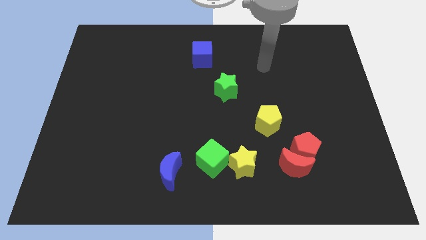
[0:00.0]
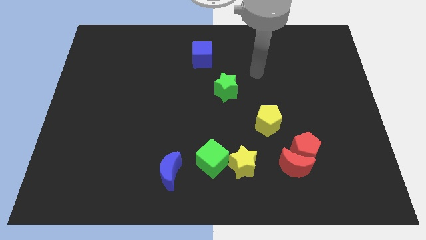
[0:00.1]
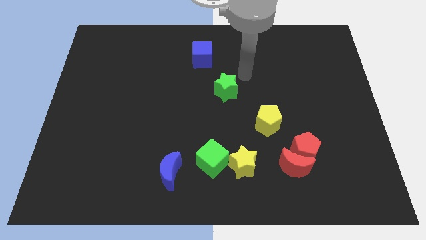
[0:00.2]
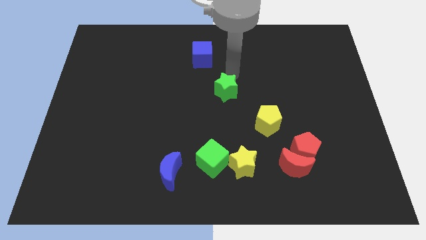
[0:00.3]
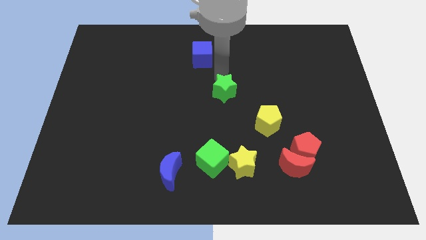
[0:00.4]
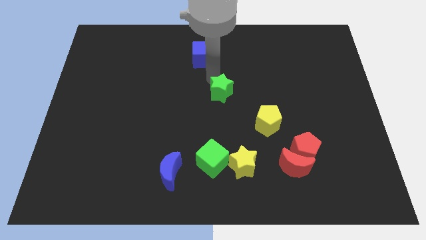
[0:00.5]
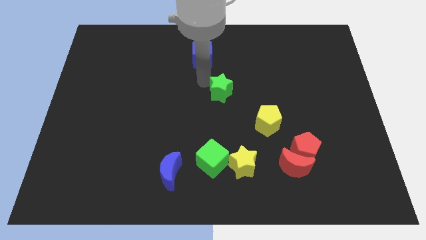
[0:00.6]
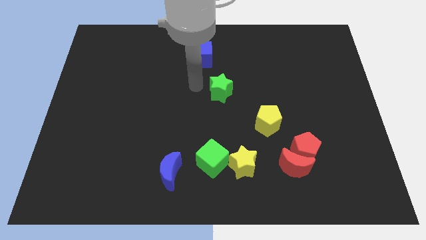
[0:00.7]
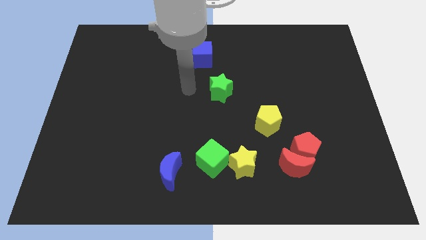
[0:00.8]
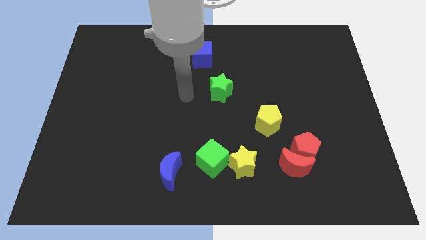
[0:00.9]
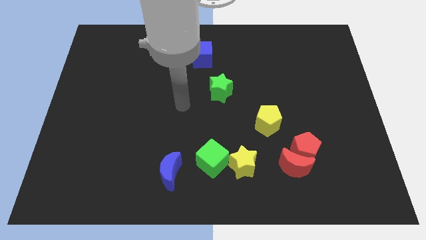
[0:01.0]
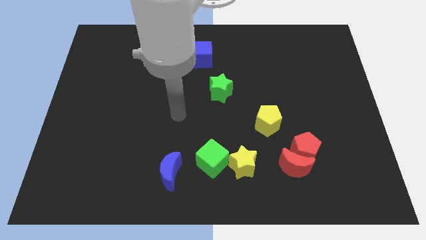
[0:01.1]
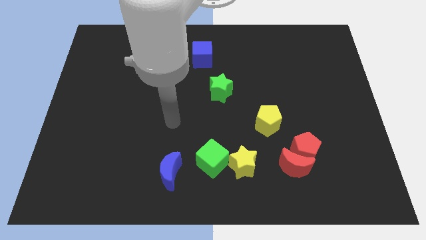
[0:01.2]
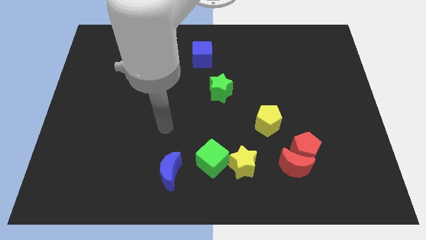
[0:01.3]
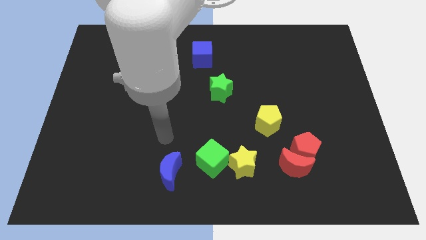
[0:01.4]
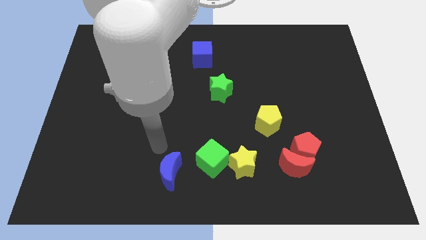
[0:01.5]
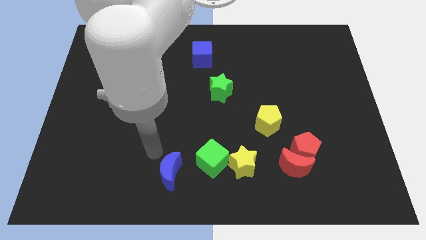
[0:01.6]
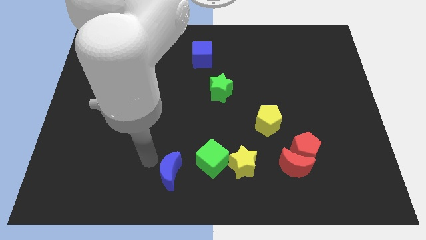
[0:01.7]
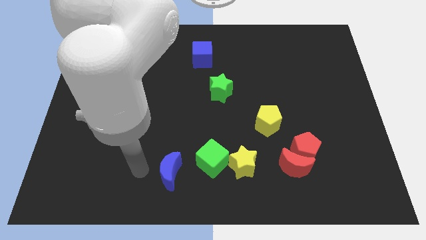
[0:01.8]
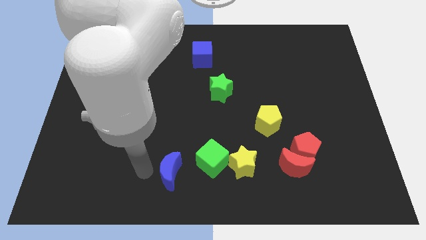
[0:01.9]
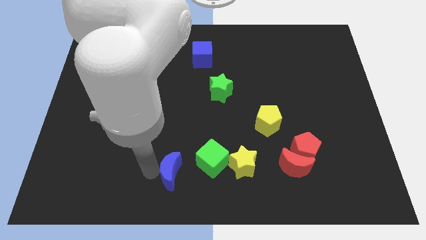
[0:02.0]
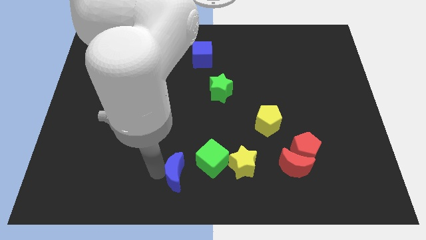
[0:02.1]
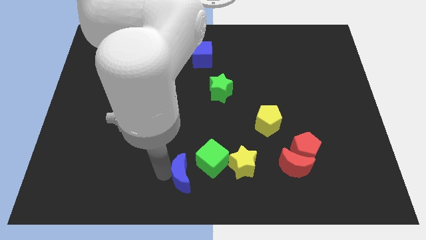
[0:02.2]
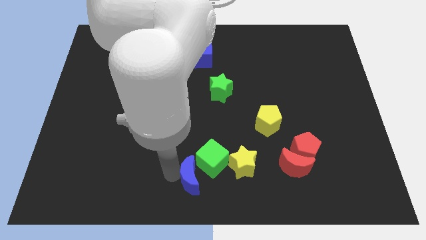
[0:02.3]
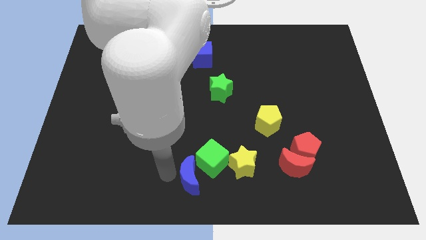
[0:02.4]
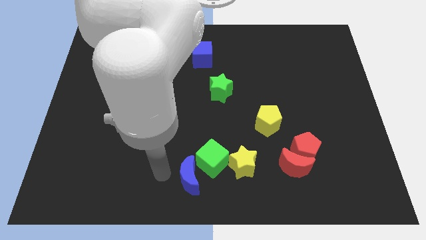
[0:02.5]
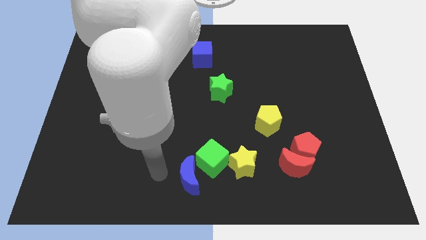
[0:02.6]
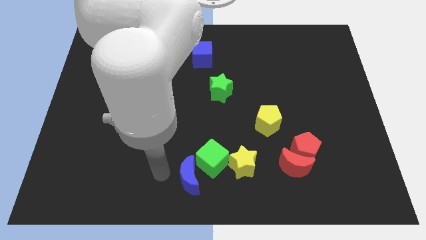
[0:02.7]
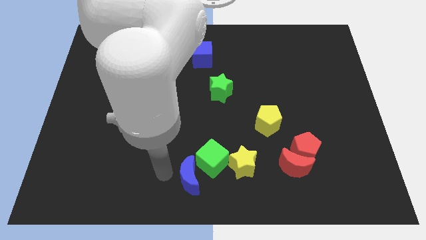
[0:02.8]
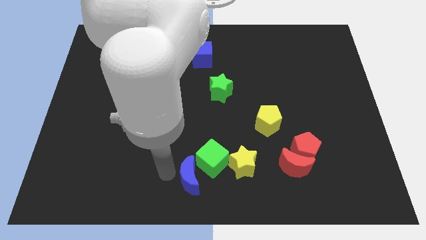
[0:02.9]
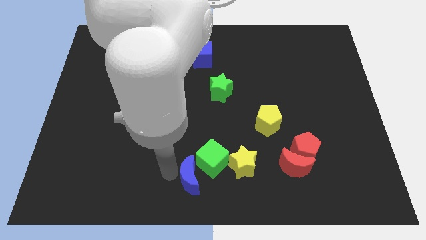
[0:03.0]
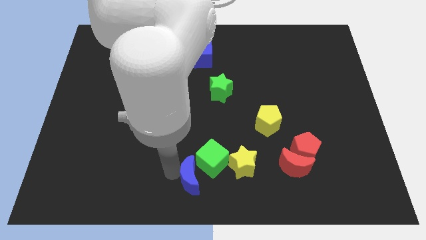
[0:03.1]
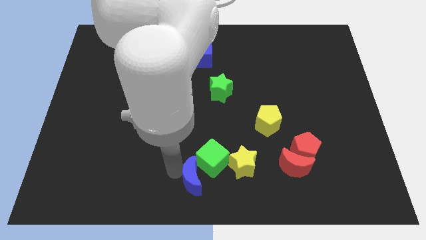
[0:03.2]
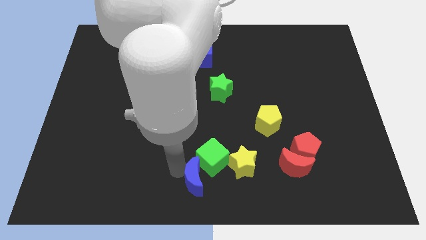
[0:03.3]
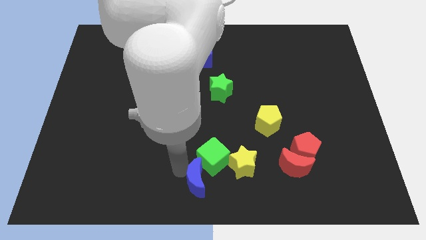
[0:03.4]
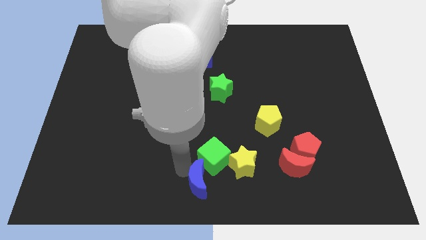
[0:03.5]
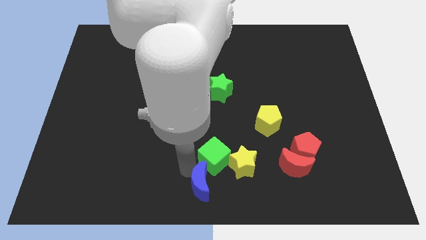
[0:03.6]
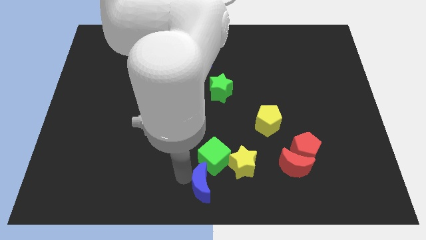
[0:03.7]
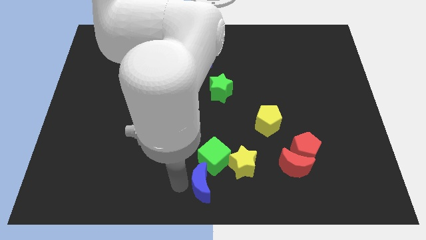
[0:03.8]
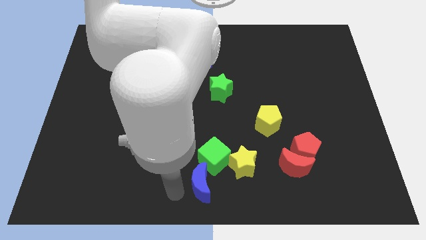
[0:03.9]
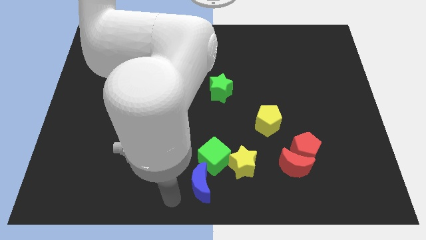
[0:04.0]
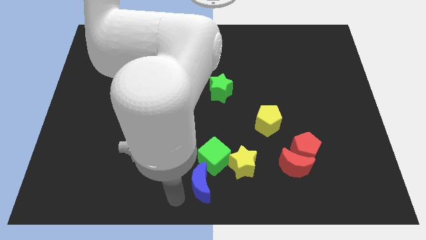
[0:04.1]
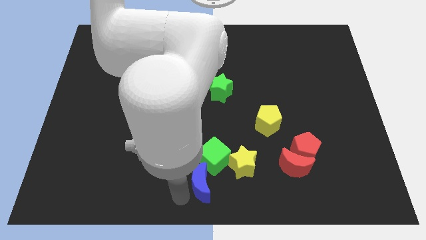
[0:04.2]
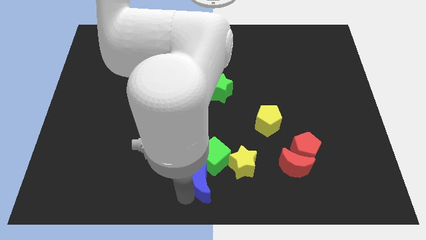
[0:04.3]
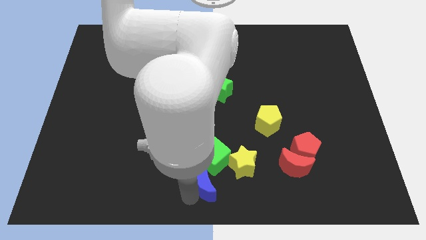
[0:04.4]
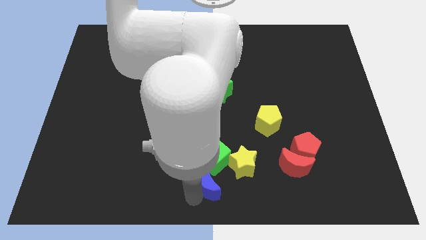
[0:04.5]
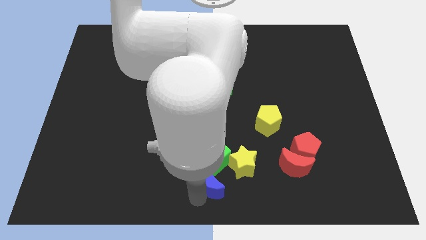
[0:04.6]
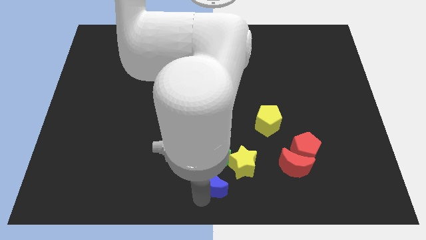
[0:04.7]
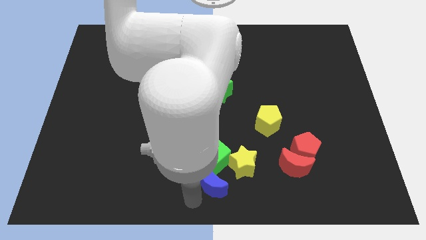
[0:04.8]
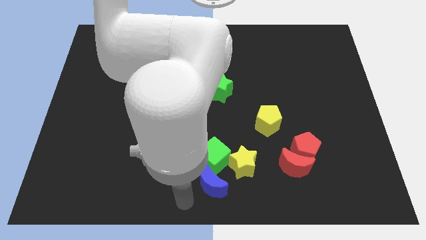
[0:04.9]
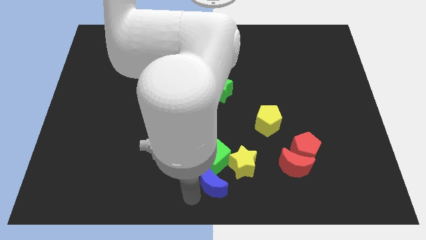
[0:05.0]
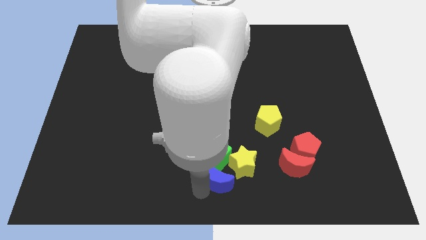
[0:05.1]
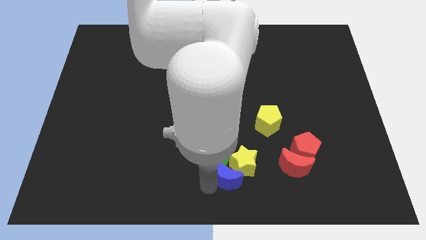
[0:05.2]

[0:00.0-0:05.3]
slide the blue moon to the yellow star

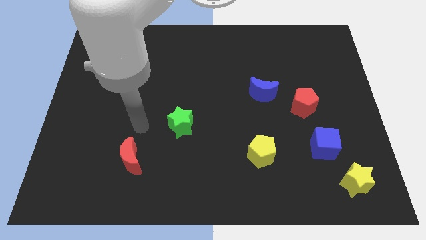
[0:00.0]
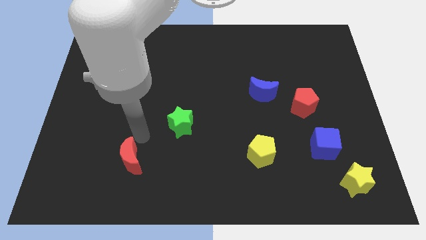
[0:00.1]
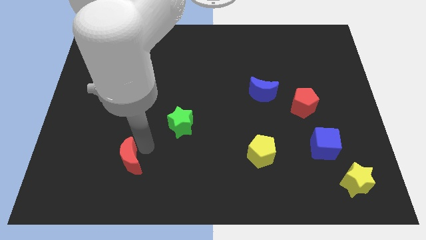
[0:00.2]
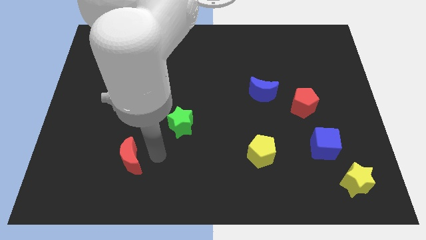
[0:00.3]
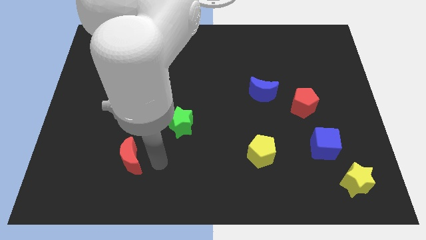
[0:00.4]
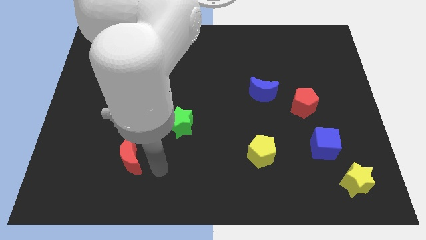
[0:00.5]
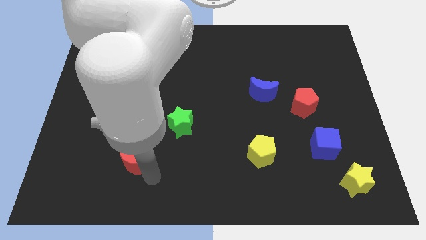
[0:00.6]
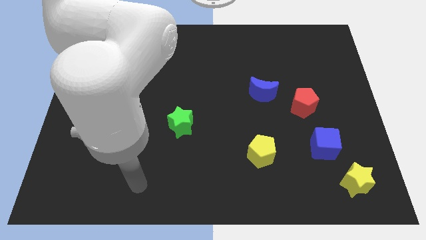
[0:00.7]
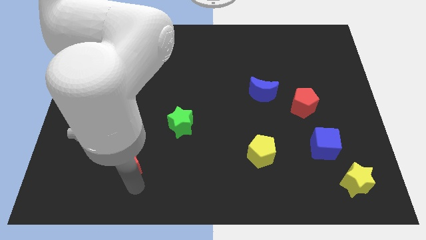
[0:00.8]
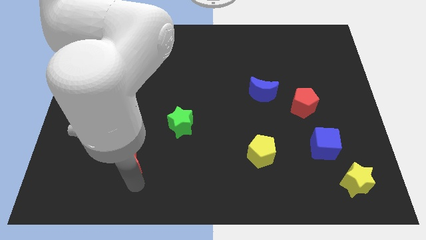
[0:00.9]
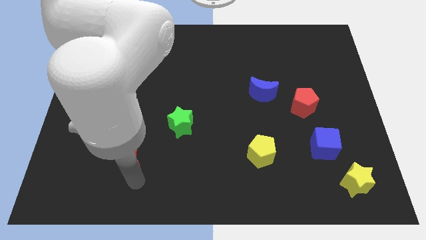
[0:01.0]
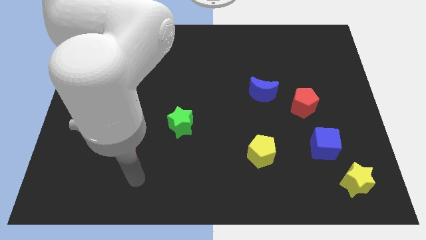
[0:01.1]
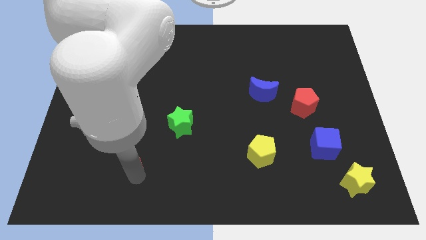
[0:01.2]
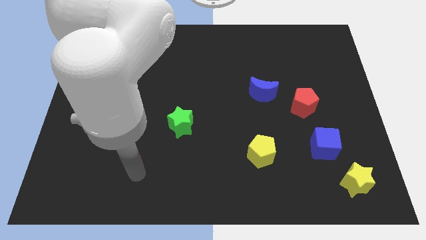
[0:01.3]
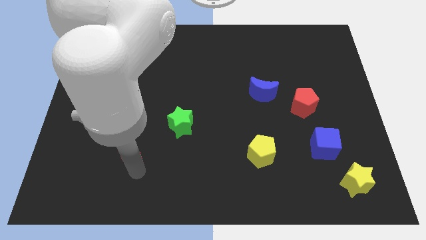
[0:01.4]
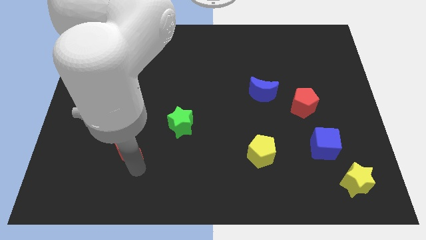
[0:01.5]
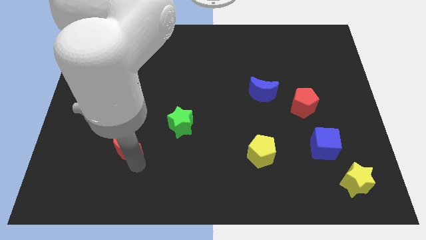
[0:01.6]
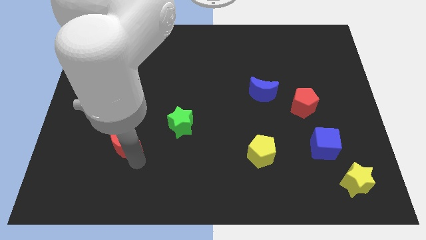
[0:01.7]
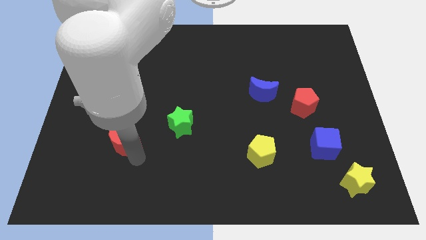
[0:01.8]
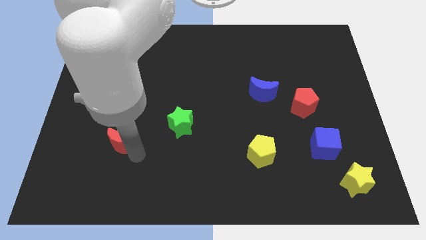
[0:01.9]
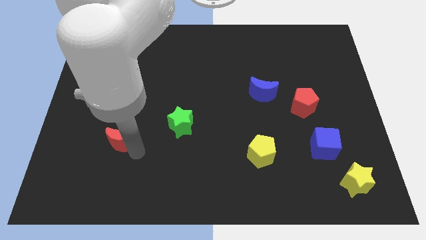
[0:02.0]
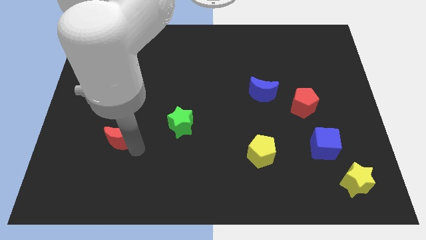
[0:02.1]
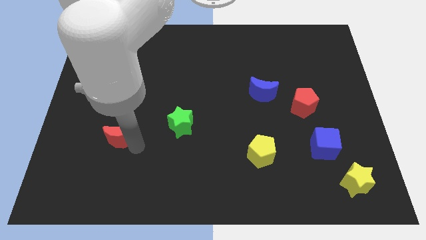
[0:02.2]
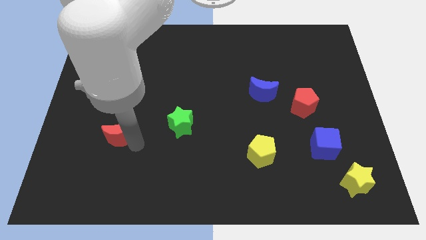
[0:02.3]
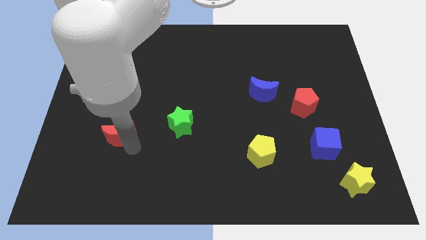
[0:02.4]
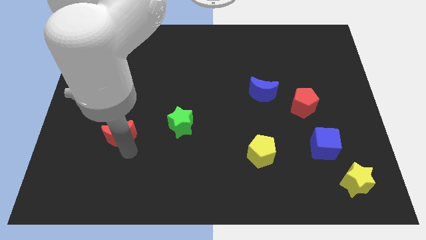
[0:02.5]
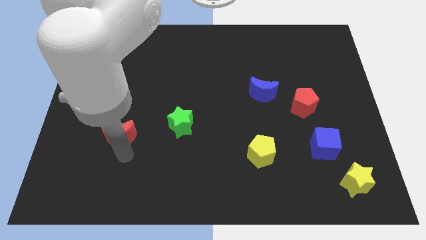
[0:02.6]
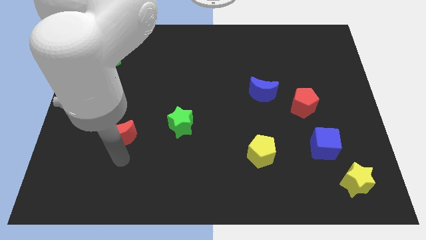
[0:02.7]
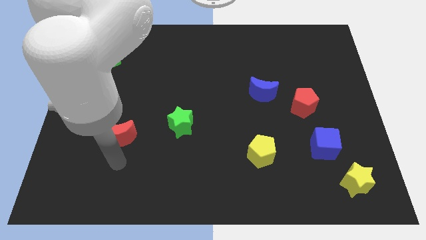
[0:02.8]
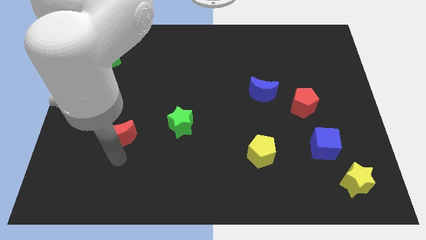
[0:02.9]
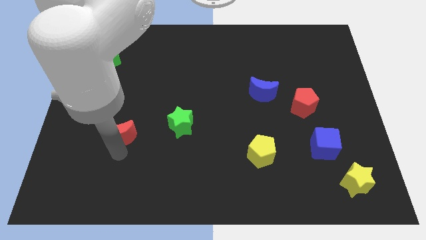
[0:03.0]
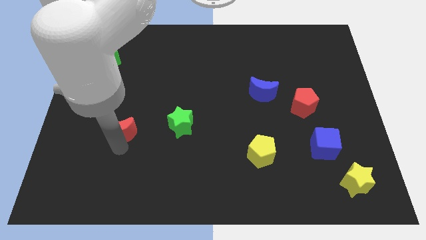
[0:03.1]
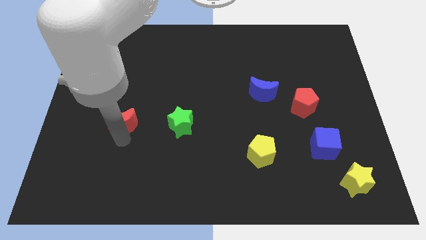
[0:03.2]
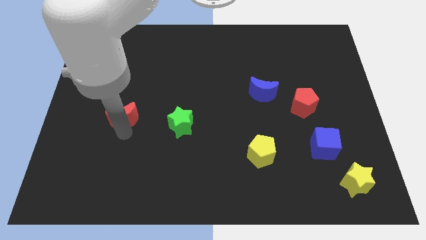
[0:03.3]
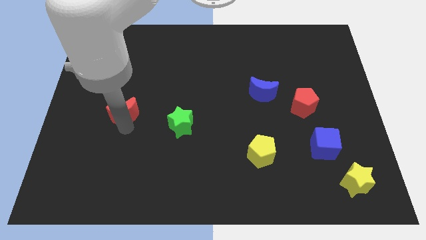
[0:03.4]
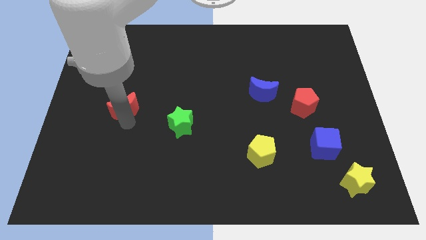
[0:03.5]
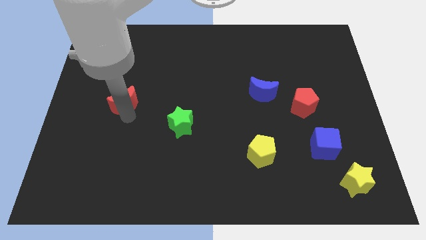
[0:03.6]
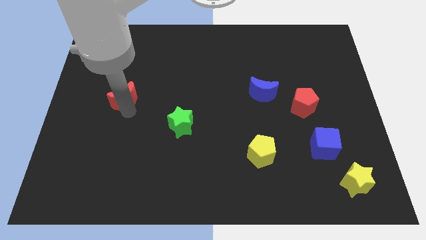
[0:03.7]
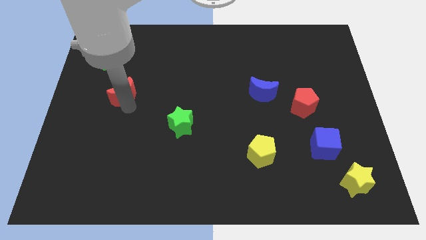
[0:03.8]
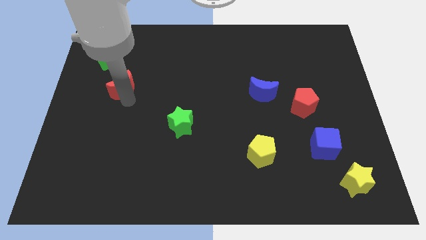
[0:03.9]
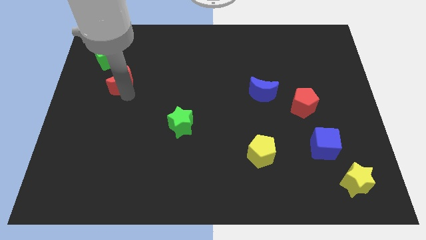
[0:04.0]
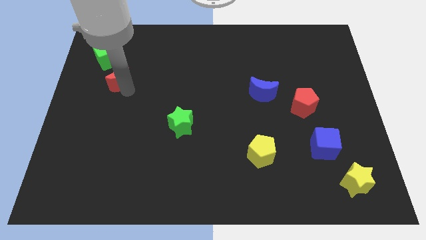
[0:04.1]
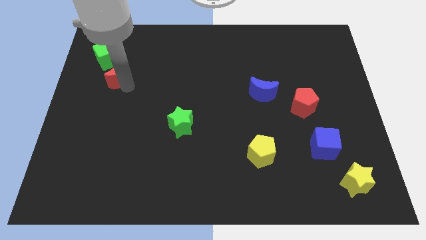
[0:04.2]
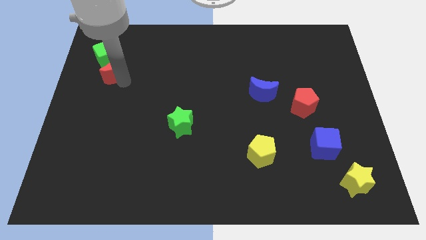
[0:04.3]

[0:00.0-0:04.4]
move the red moon towards the green cube
